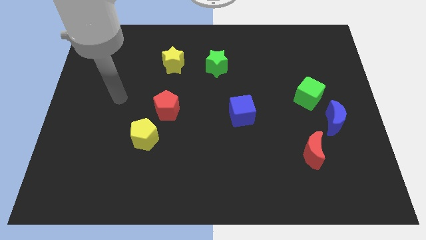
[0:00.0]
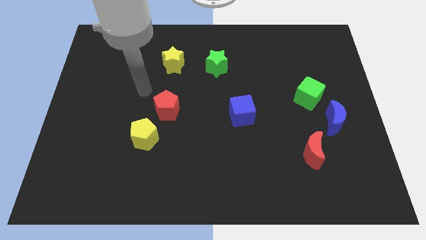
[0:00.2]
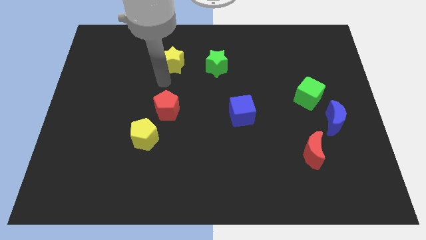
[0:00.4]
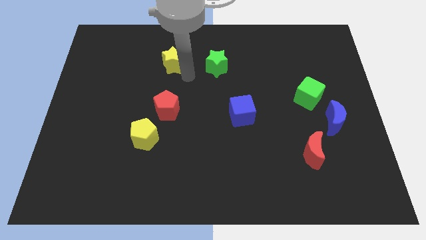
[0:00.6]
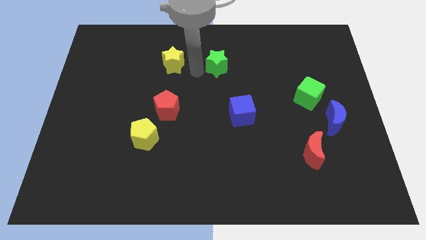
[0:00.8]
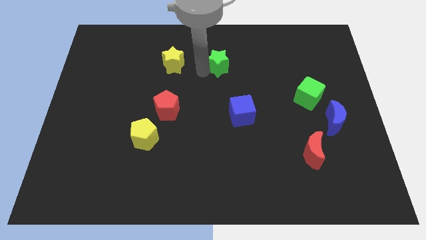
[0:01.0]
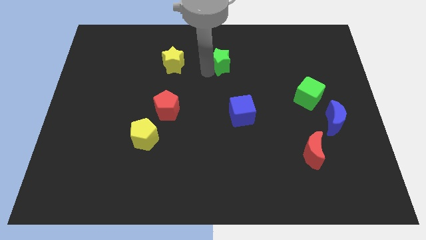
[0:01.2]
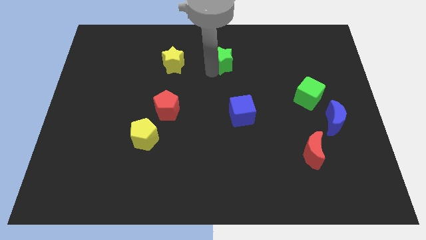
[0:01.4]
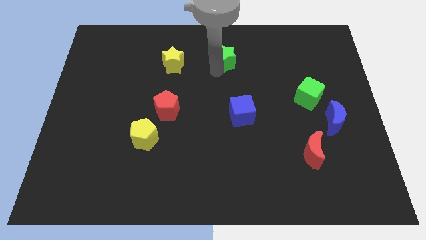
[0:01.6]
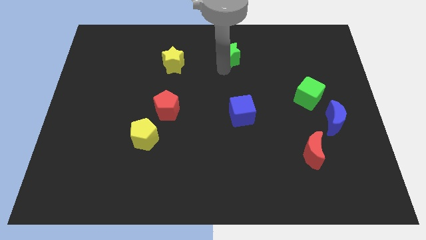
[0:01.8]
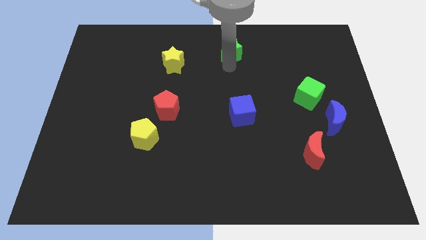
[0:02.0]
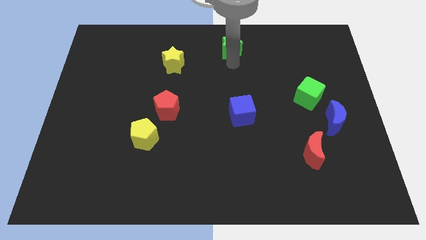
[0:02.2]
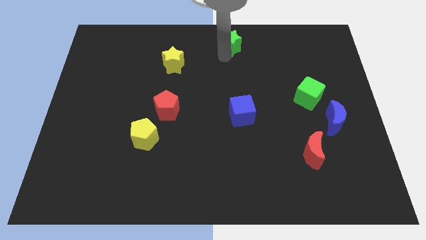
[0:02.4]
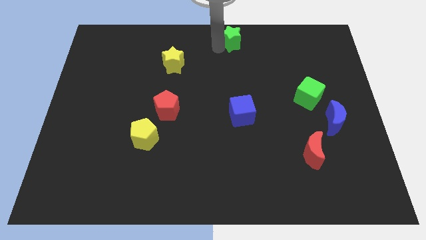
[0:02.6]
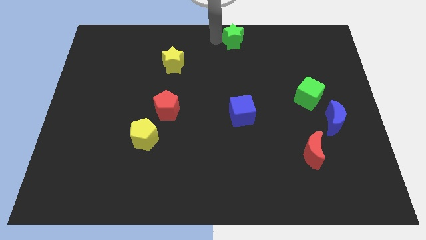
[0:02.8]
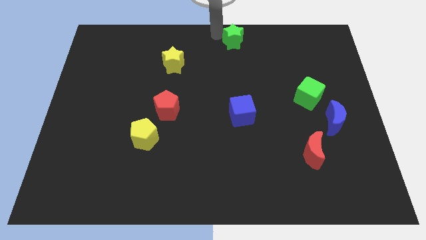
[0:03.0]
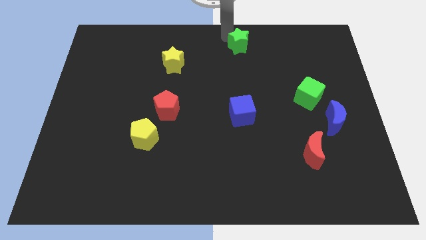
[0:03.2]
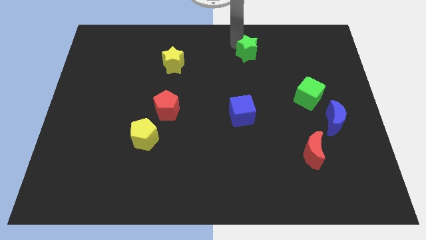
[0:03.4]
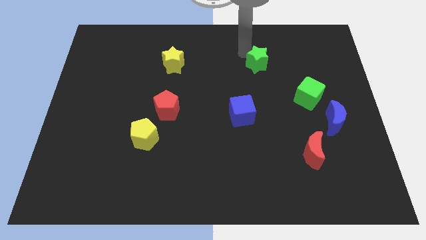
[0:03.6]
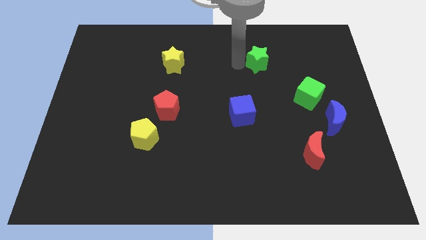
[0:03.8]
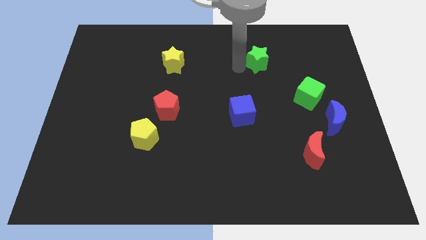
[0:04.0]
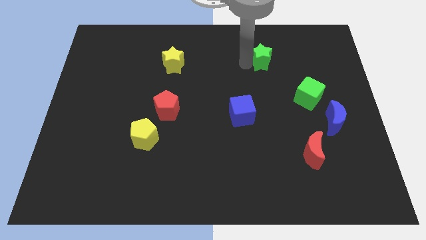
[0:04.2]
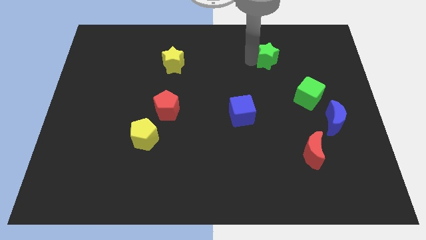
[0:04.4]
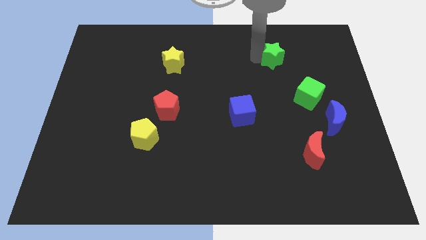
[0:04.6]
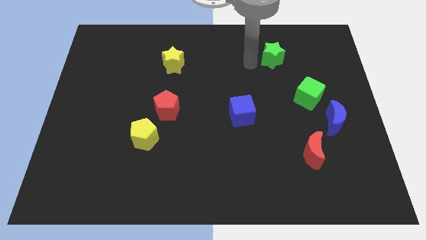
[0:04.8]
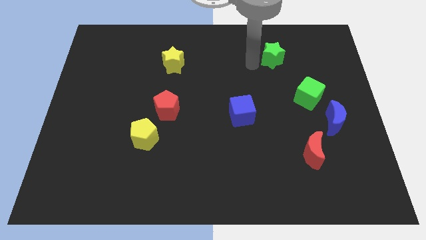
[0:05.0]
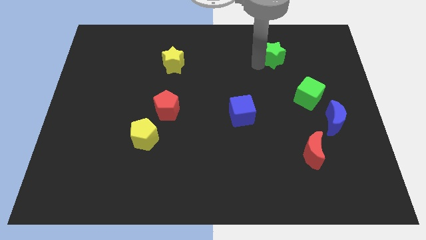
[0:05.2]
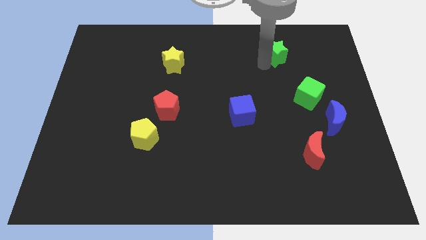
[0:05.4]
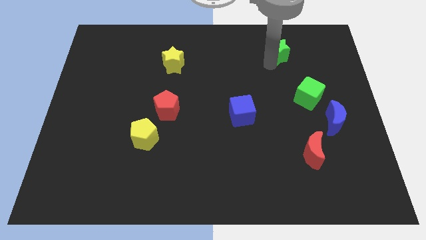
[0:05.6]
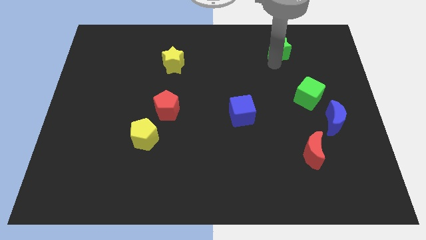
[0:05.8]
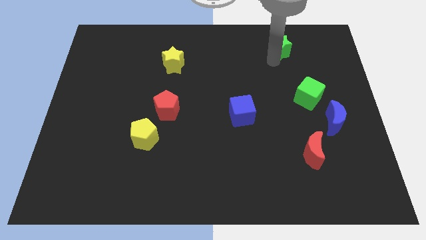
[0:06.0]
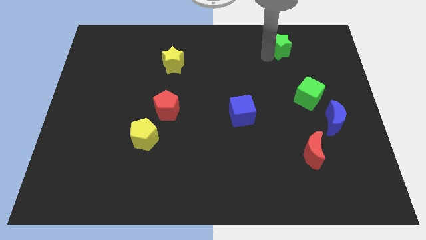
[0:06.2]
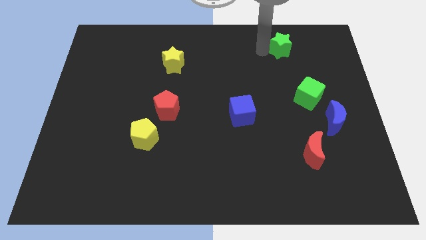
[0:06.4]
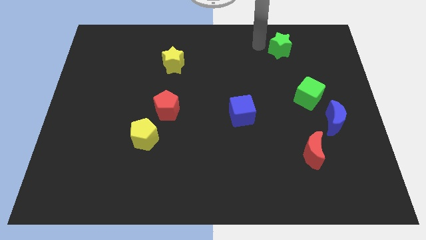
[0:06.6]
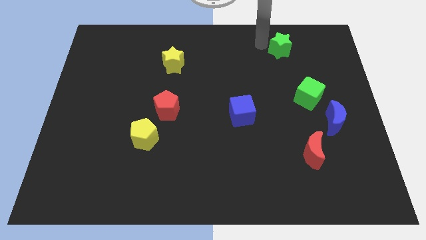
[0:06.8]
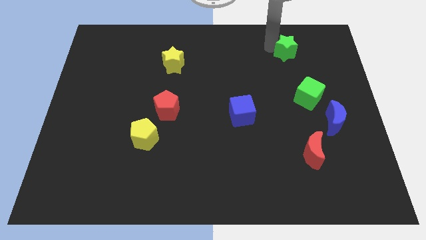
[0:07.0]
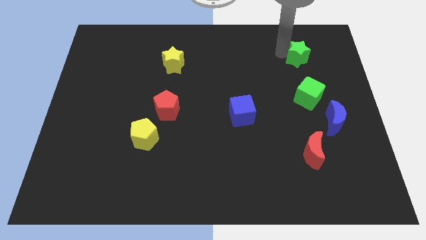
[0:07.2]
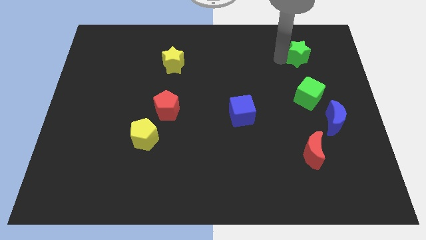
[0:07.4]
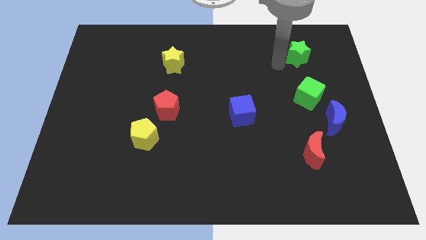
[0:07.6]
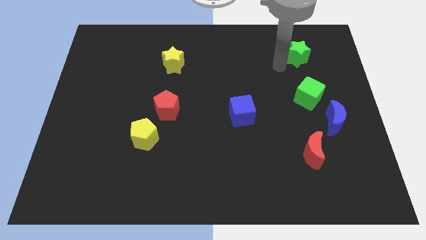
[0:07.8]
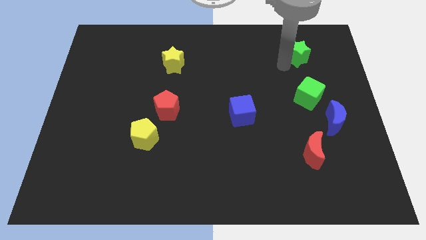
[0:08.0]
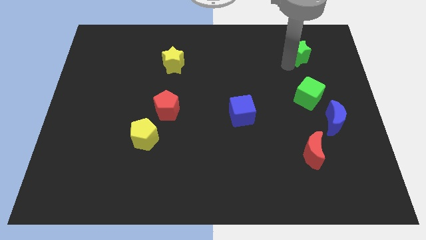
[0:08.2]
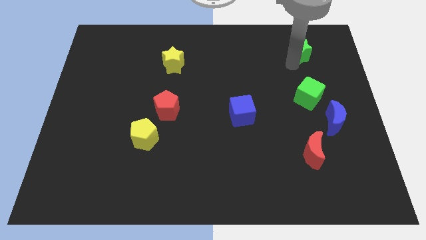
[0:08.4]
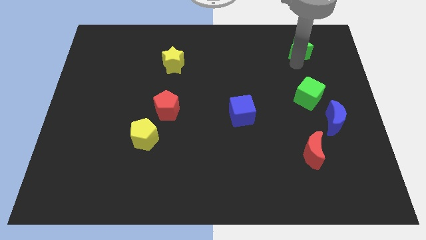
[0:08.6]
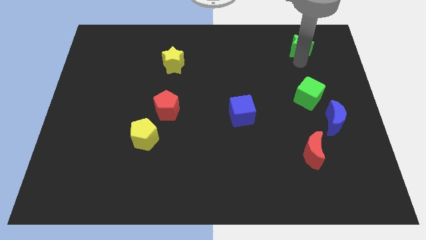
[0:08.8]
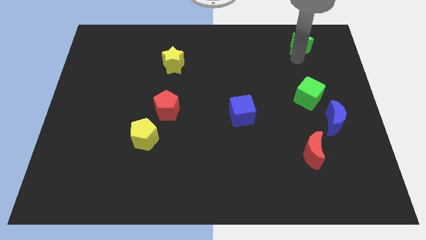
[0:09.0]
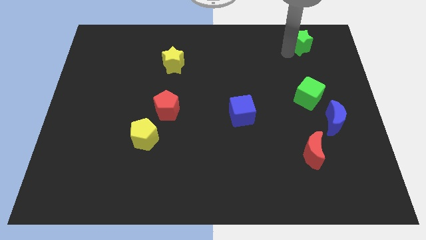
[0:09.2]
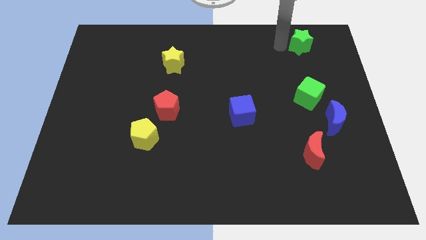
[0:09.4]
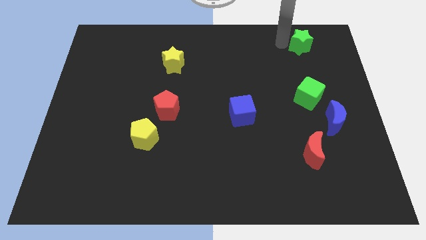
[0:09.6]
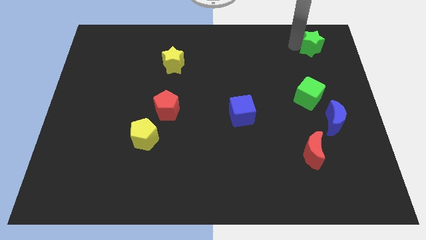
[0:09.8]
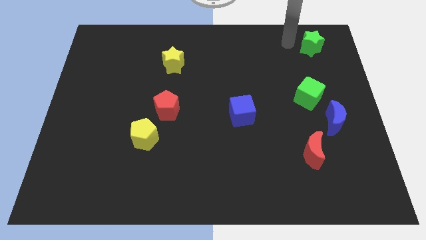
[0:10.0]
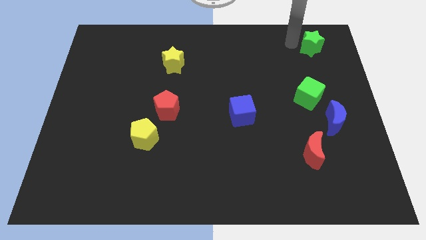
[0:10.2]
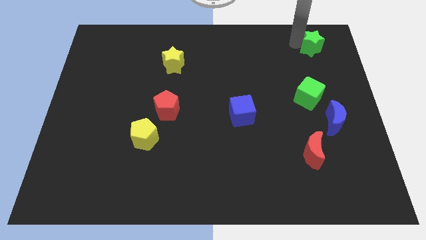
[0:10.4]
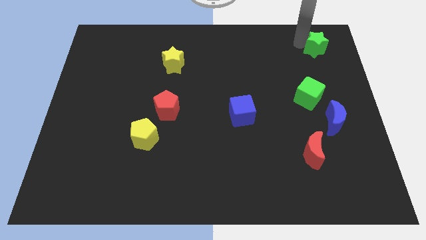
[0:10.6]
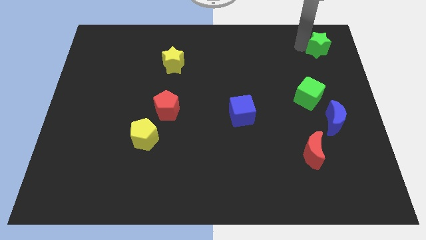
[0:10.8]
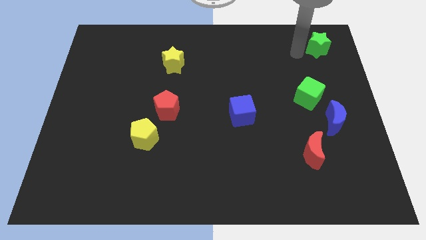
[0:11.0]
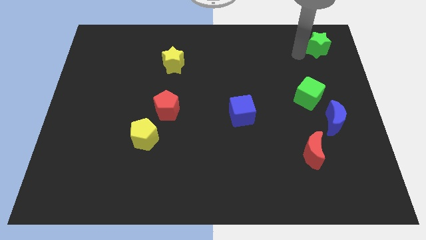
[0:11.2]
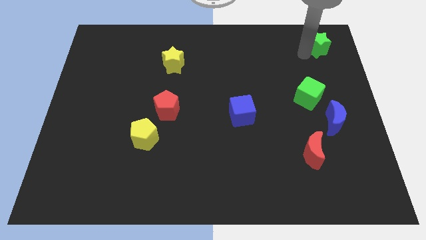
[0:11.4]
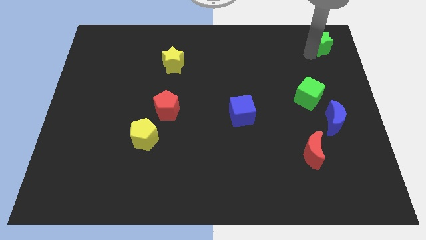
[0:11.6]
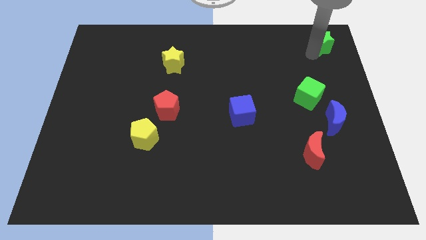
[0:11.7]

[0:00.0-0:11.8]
push the green star to the upper right corner

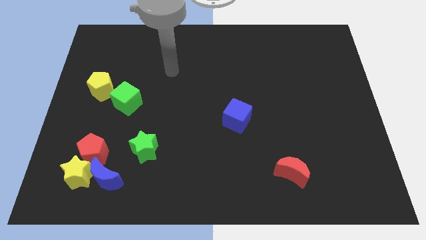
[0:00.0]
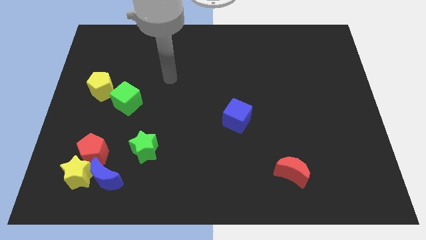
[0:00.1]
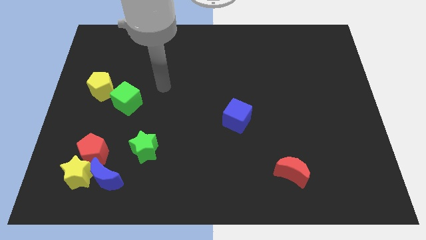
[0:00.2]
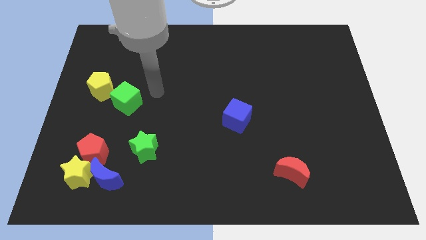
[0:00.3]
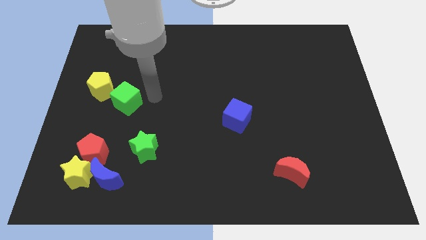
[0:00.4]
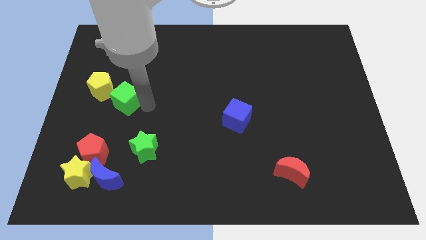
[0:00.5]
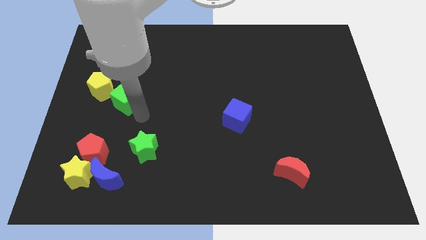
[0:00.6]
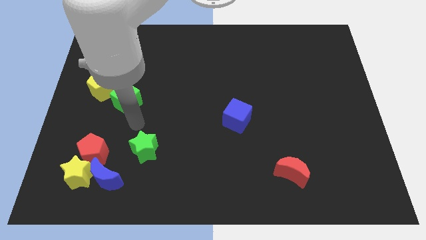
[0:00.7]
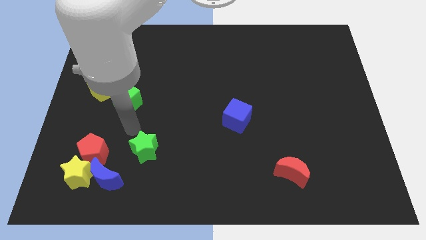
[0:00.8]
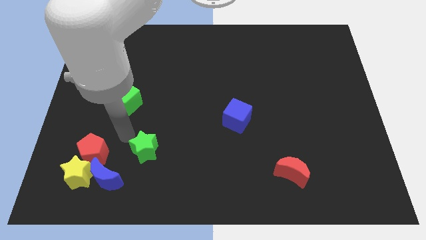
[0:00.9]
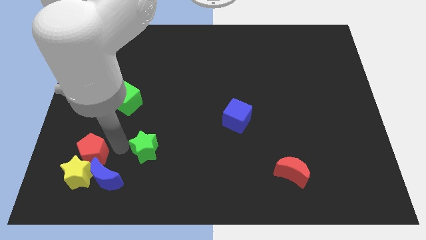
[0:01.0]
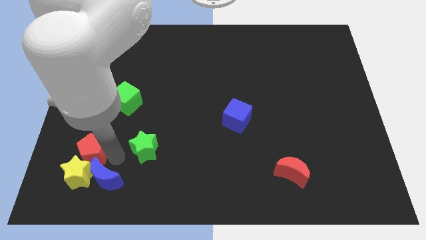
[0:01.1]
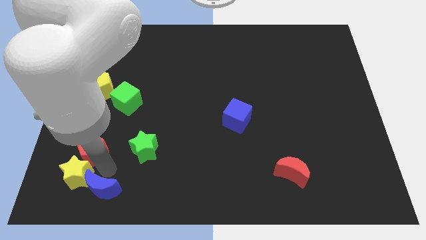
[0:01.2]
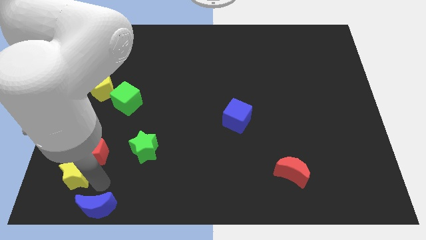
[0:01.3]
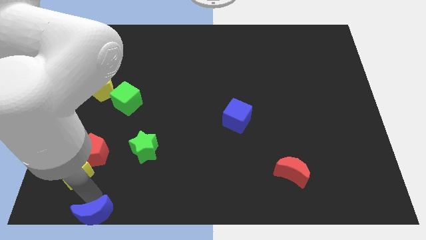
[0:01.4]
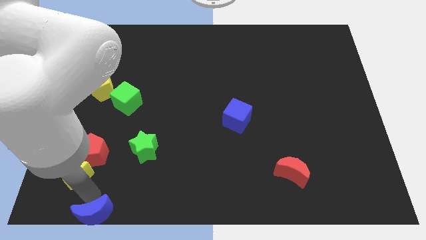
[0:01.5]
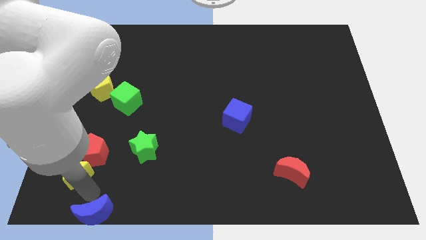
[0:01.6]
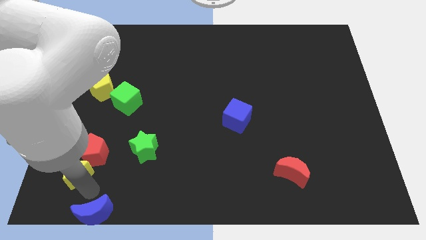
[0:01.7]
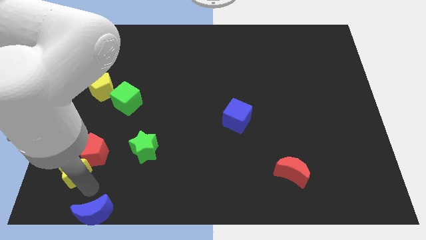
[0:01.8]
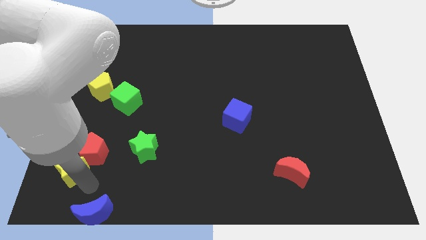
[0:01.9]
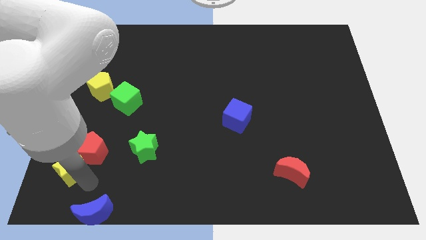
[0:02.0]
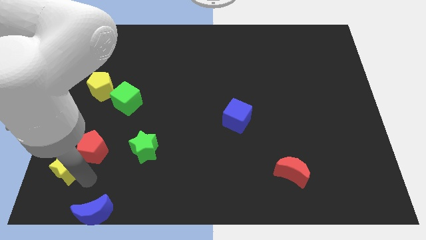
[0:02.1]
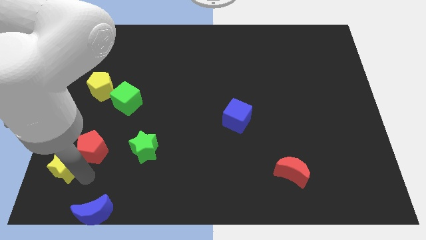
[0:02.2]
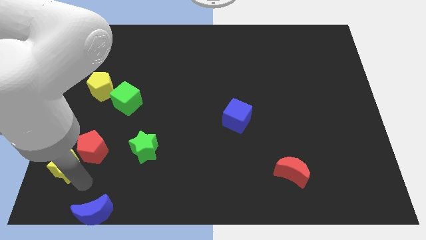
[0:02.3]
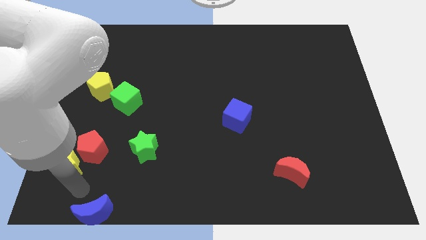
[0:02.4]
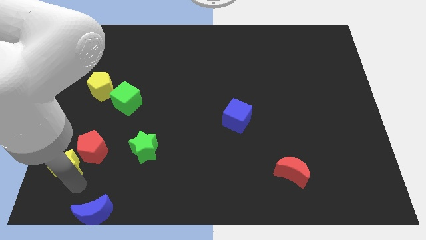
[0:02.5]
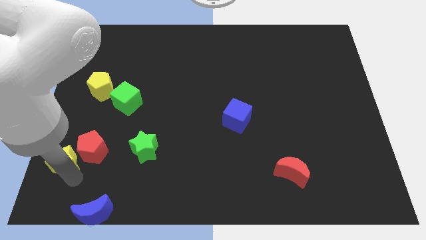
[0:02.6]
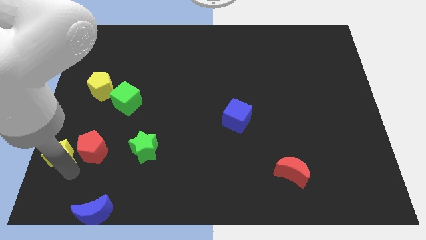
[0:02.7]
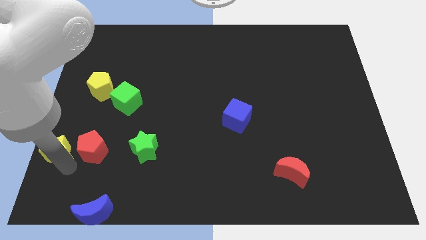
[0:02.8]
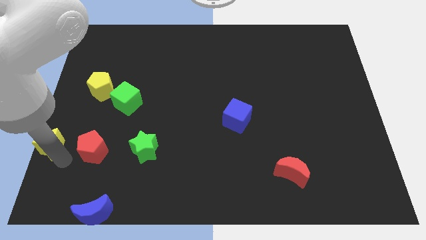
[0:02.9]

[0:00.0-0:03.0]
put the yellow star to the left side
